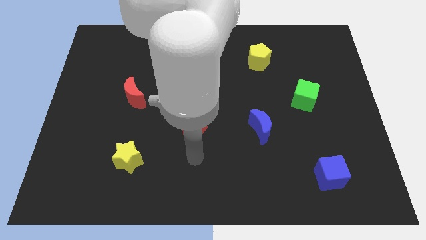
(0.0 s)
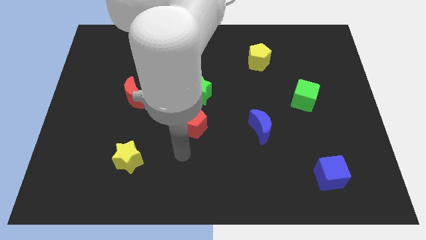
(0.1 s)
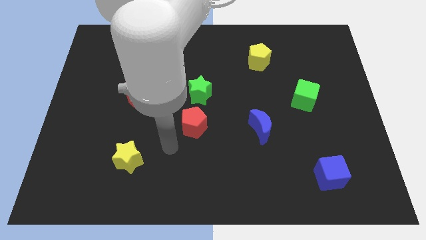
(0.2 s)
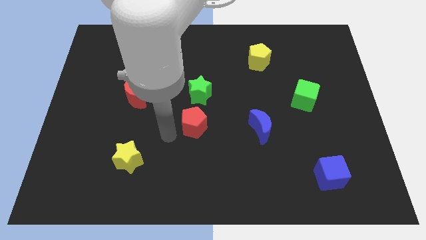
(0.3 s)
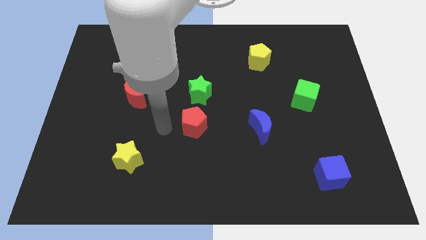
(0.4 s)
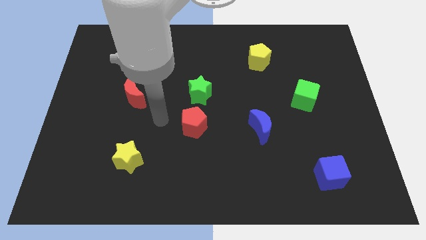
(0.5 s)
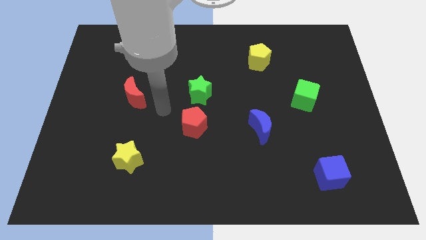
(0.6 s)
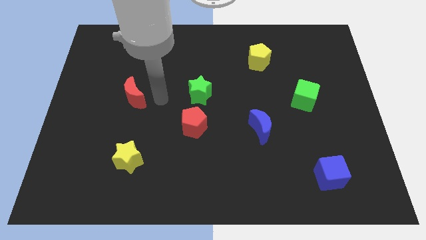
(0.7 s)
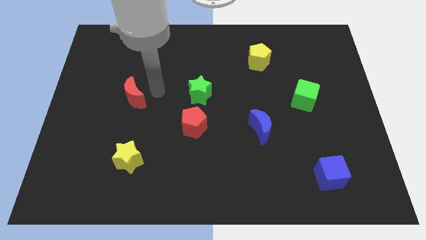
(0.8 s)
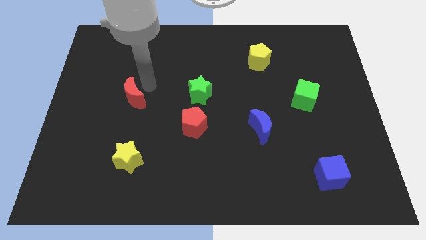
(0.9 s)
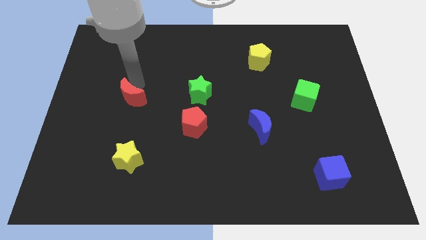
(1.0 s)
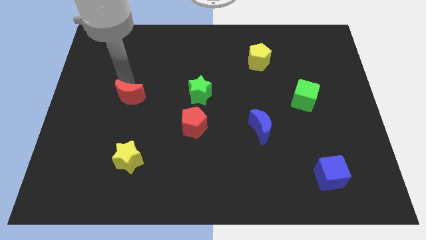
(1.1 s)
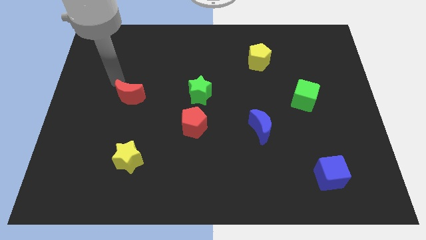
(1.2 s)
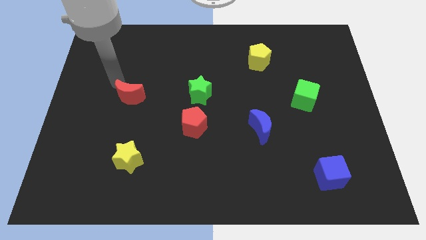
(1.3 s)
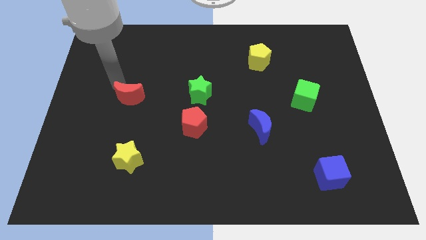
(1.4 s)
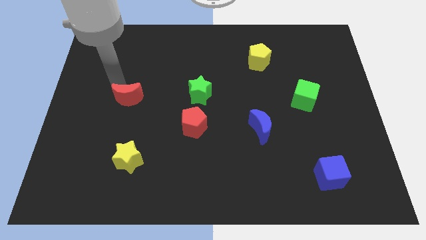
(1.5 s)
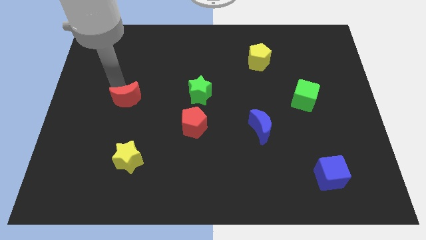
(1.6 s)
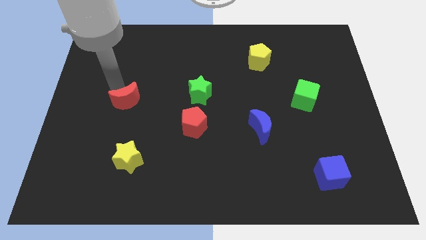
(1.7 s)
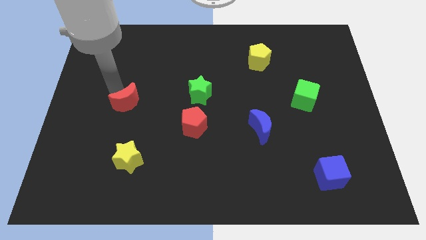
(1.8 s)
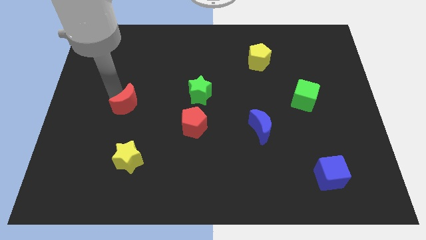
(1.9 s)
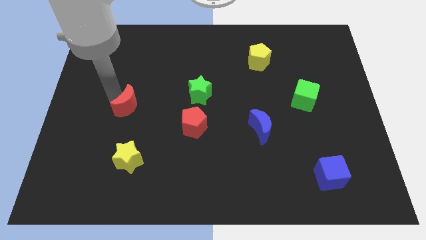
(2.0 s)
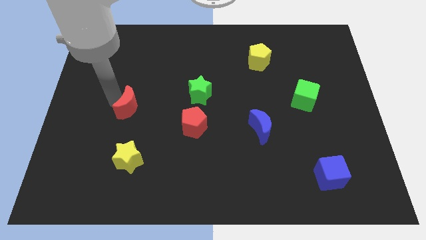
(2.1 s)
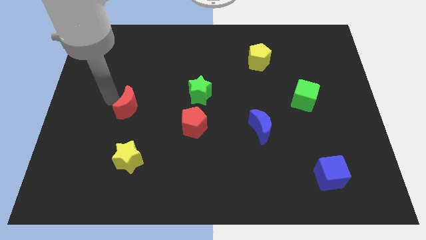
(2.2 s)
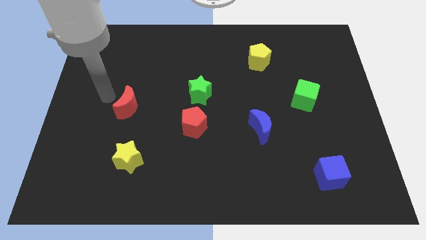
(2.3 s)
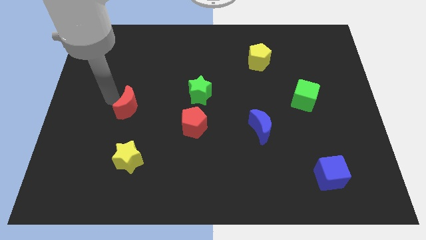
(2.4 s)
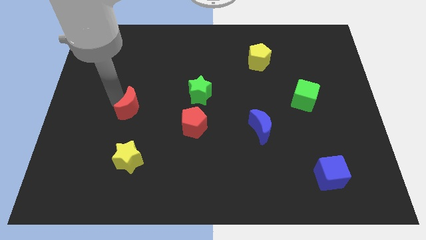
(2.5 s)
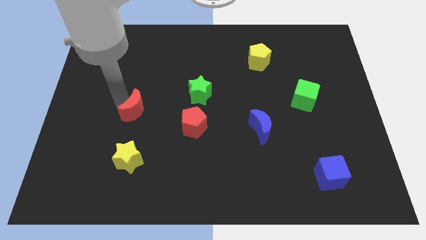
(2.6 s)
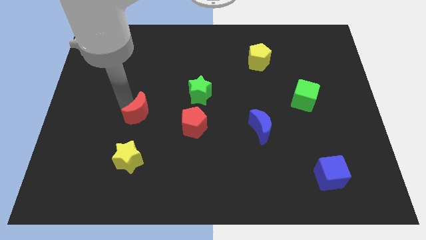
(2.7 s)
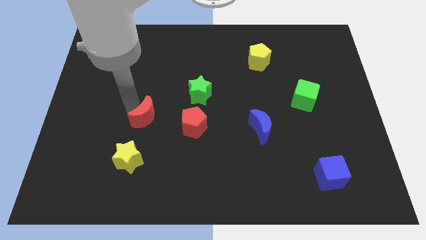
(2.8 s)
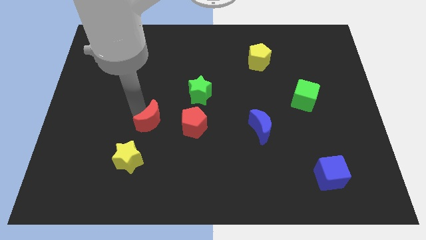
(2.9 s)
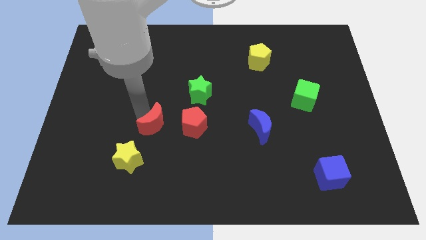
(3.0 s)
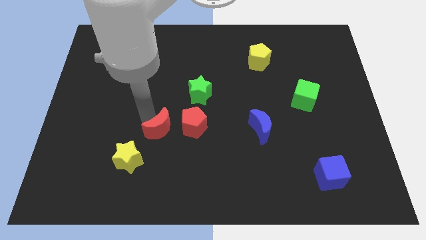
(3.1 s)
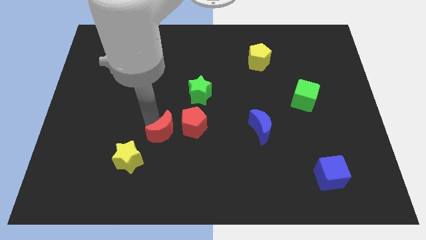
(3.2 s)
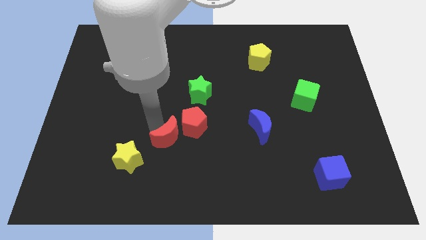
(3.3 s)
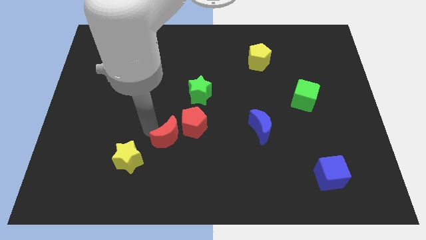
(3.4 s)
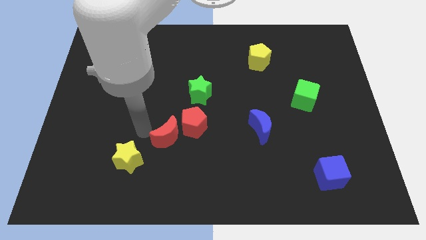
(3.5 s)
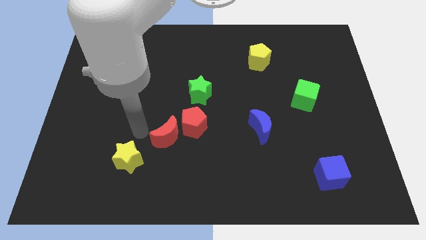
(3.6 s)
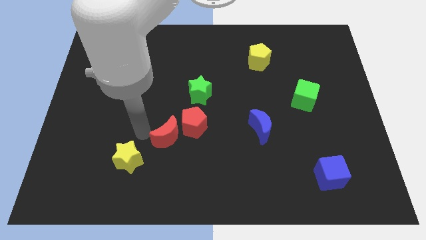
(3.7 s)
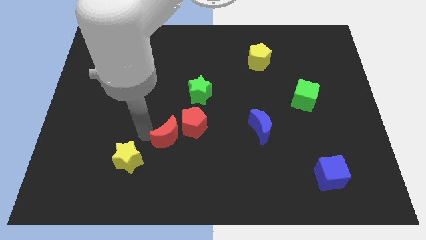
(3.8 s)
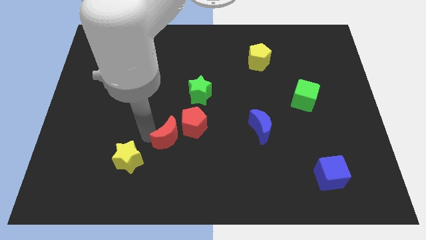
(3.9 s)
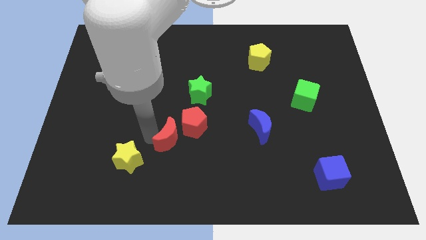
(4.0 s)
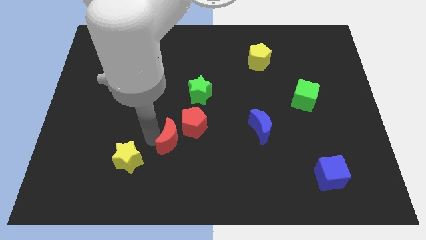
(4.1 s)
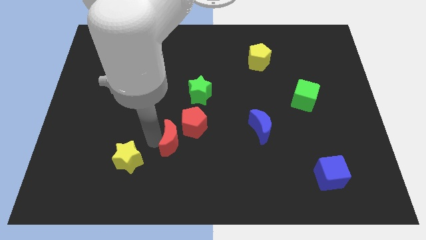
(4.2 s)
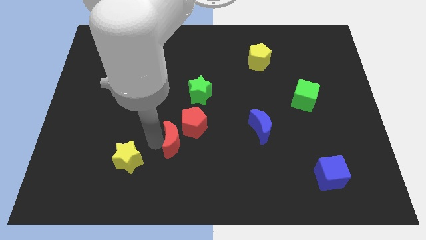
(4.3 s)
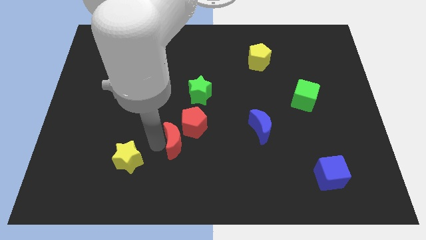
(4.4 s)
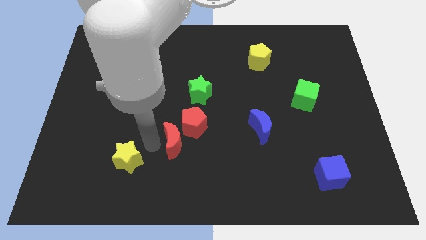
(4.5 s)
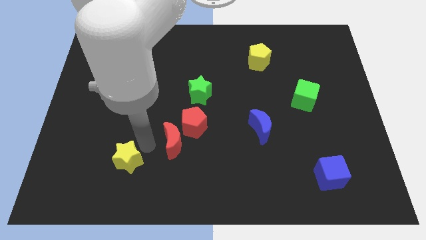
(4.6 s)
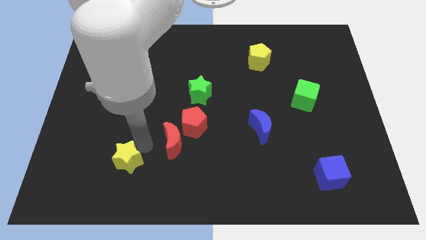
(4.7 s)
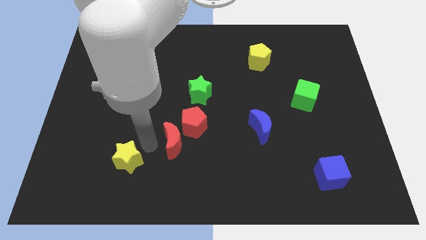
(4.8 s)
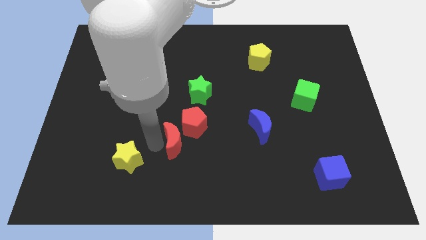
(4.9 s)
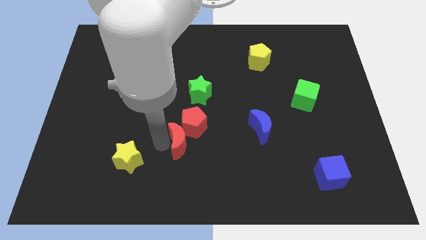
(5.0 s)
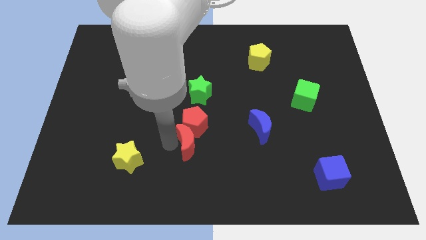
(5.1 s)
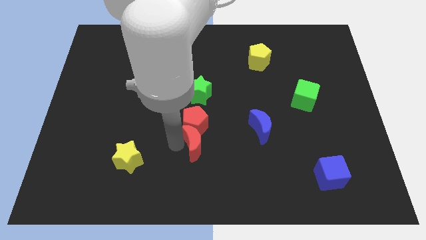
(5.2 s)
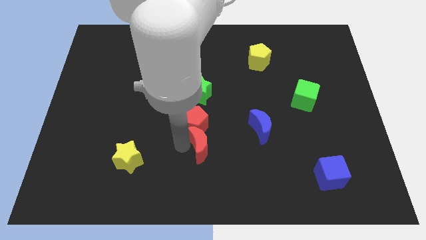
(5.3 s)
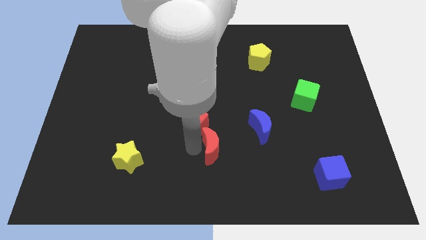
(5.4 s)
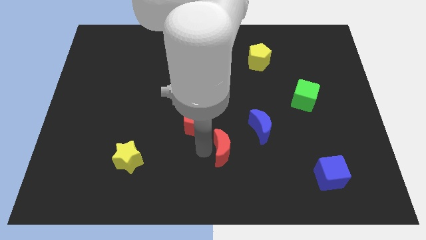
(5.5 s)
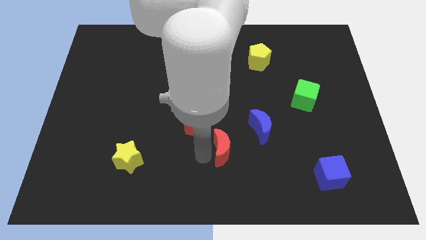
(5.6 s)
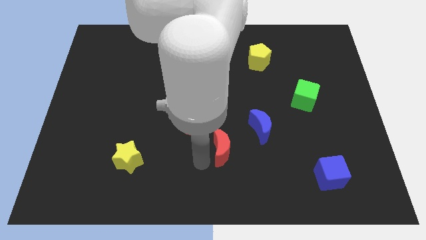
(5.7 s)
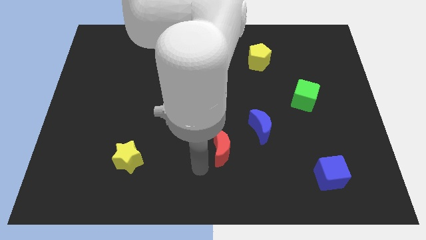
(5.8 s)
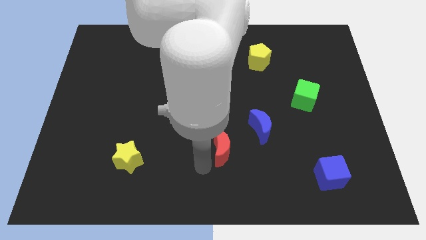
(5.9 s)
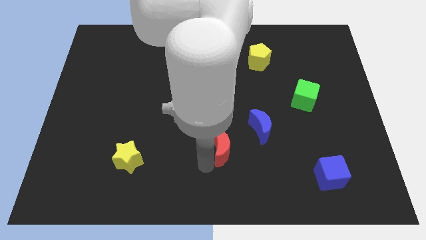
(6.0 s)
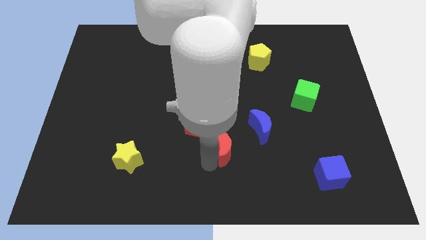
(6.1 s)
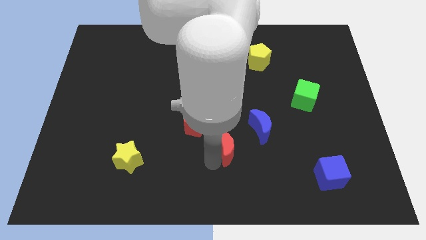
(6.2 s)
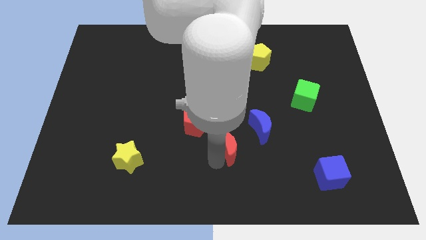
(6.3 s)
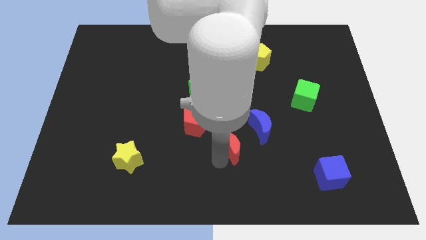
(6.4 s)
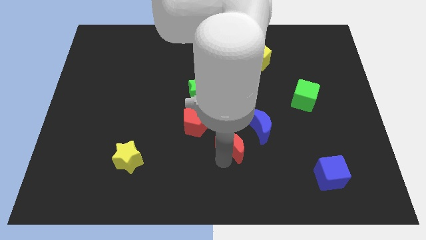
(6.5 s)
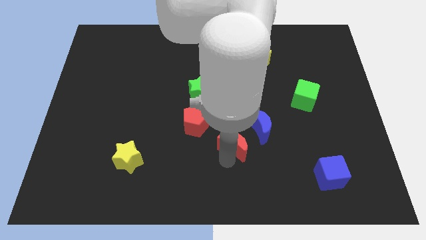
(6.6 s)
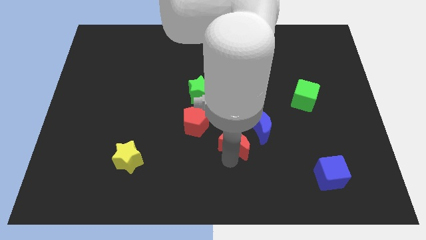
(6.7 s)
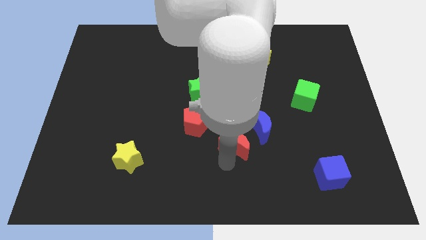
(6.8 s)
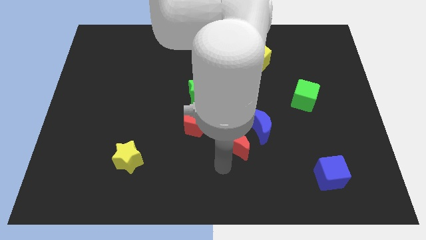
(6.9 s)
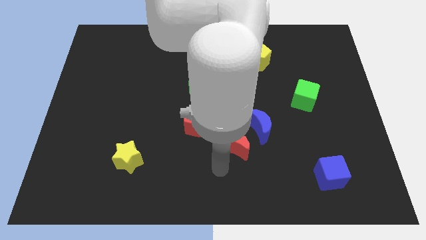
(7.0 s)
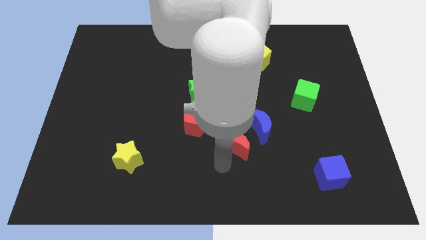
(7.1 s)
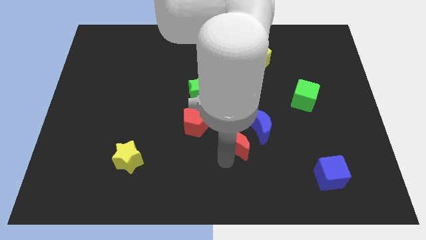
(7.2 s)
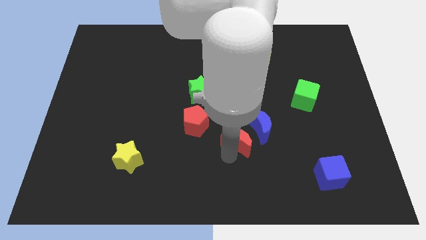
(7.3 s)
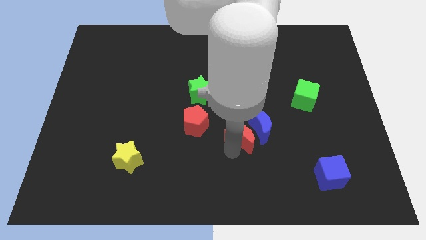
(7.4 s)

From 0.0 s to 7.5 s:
put the red moon next to the blue moon

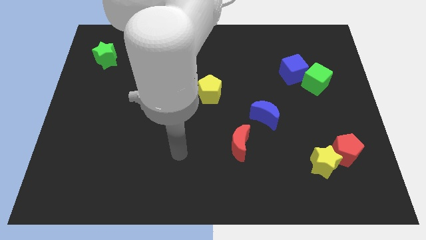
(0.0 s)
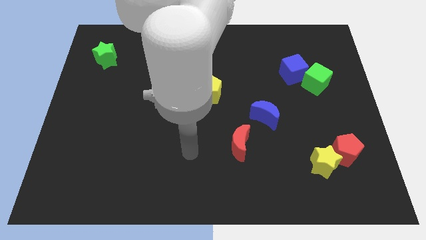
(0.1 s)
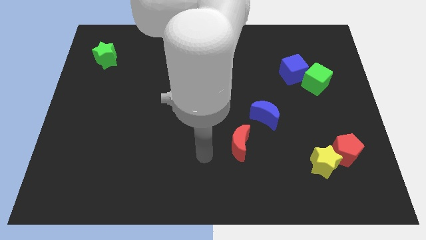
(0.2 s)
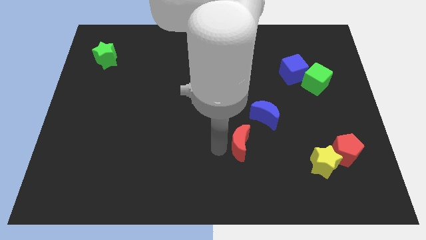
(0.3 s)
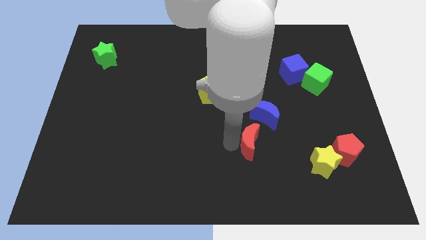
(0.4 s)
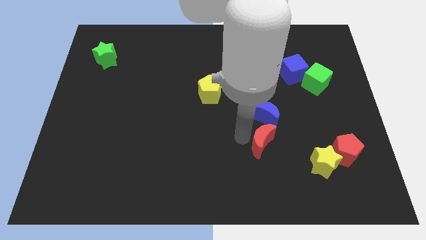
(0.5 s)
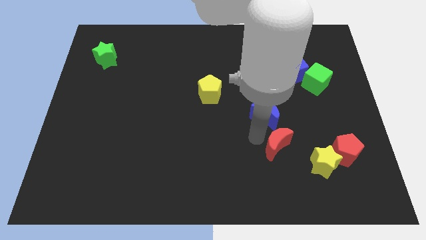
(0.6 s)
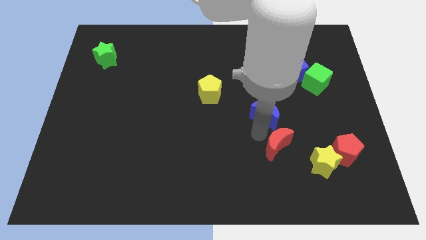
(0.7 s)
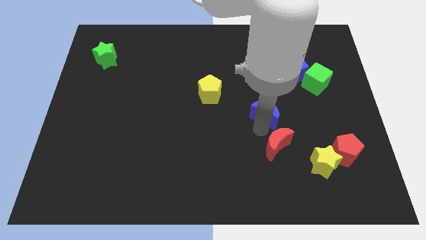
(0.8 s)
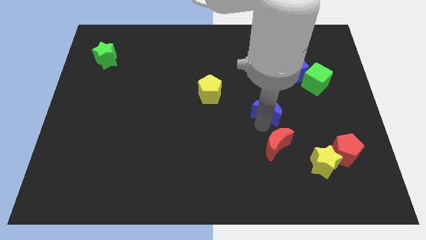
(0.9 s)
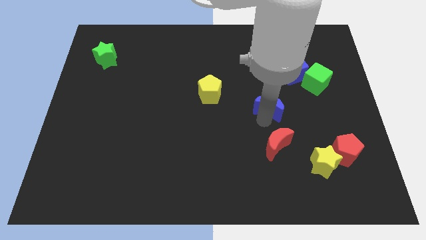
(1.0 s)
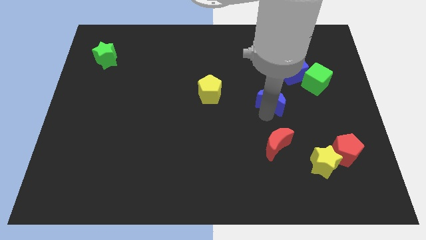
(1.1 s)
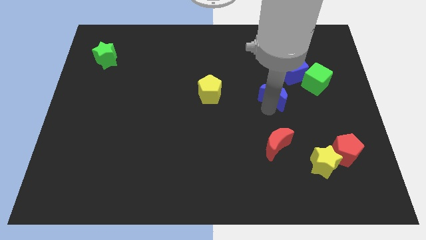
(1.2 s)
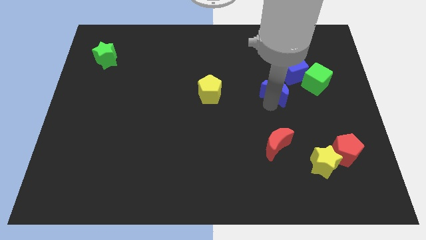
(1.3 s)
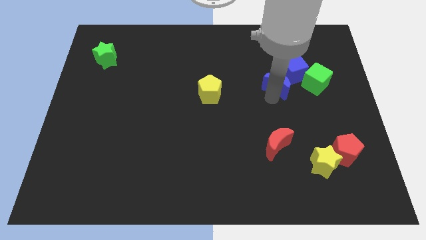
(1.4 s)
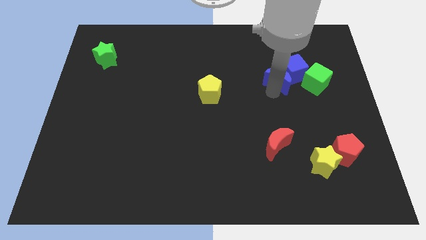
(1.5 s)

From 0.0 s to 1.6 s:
push the blue moon close to the blue cube
